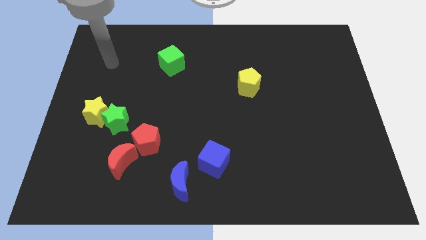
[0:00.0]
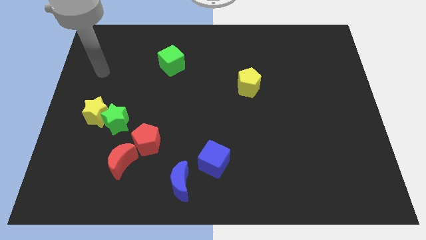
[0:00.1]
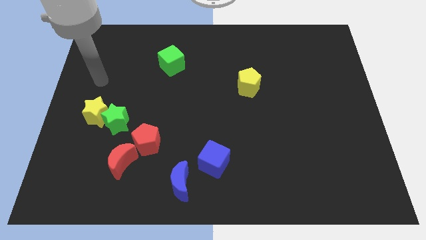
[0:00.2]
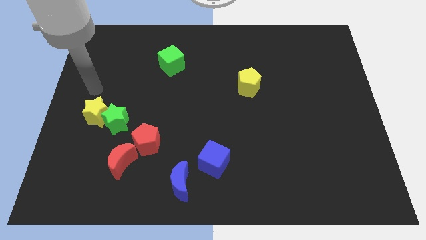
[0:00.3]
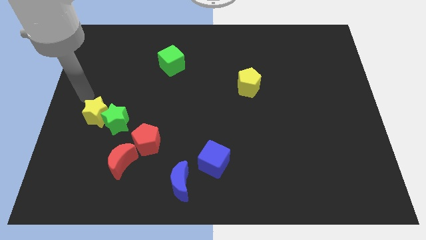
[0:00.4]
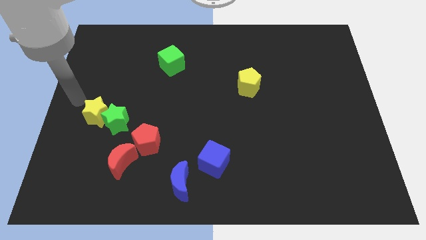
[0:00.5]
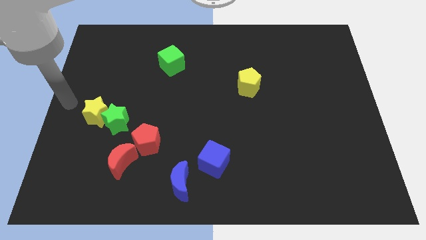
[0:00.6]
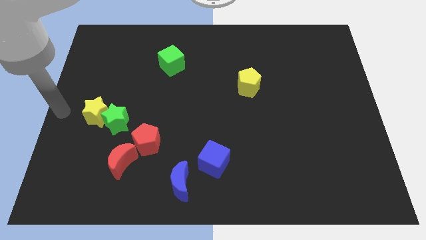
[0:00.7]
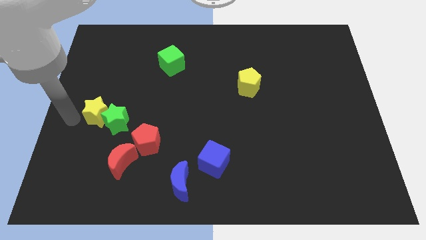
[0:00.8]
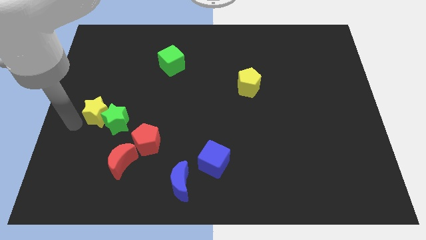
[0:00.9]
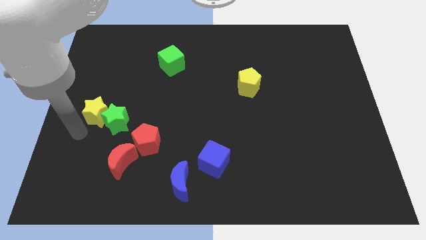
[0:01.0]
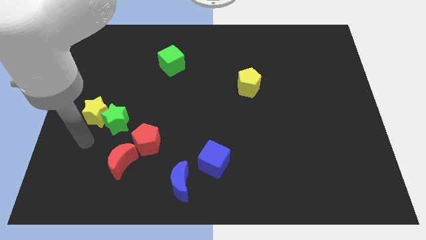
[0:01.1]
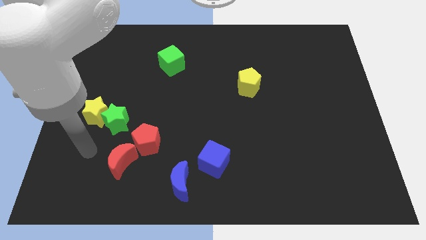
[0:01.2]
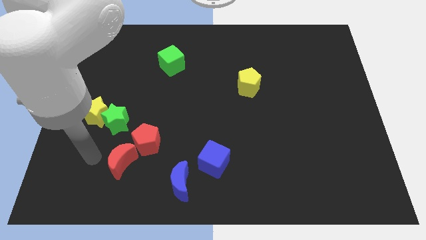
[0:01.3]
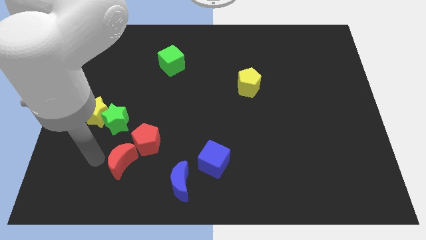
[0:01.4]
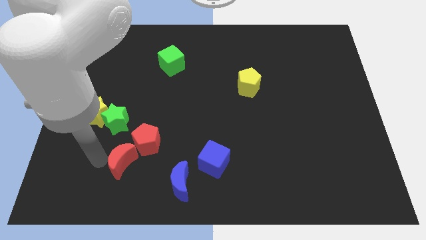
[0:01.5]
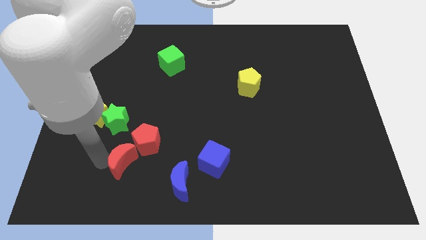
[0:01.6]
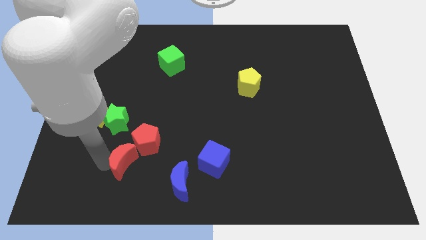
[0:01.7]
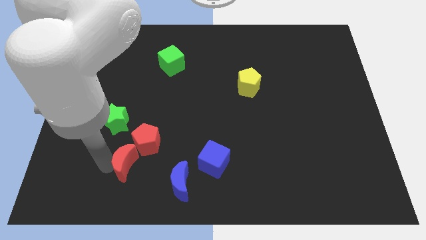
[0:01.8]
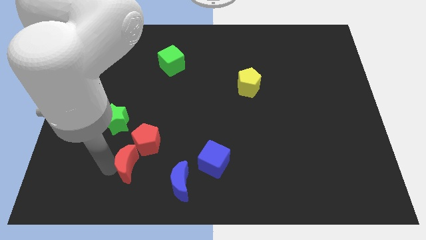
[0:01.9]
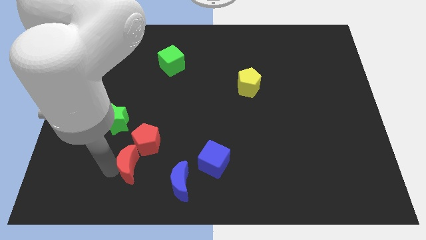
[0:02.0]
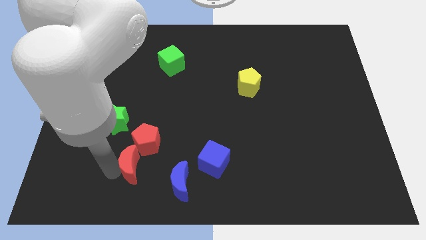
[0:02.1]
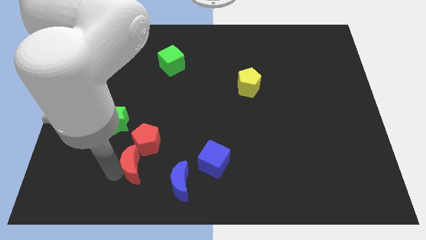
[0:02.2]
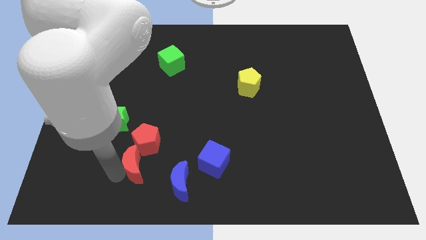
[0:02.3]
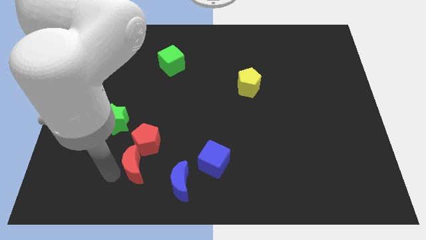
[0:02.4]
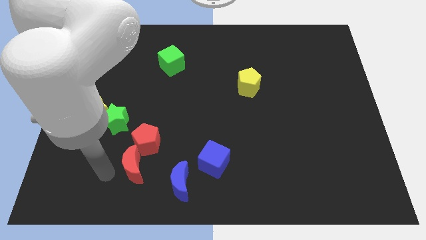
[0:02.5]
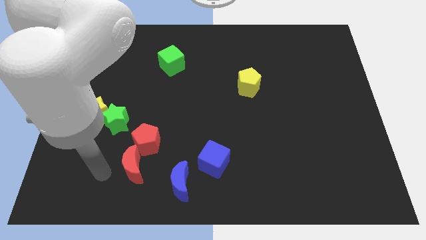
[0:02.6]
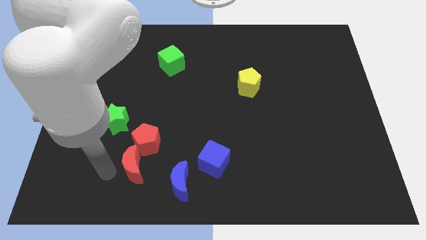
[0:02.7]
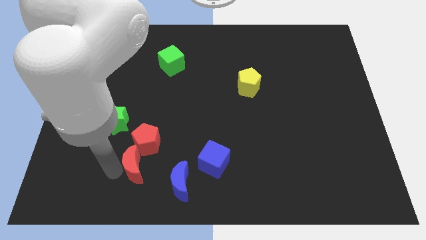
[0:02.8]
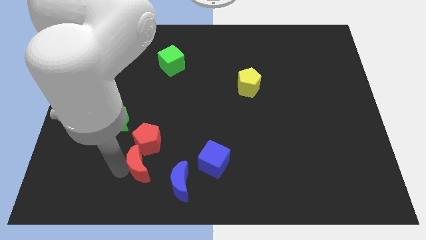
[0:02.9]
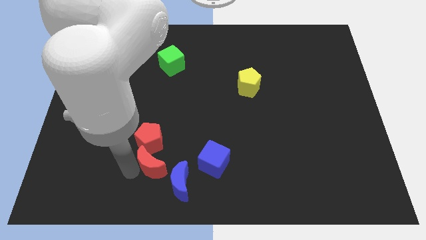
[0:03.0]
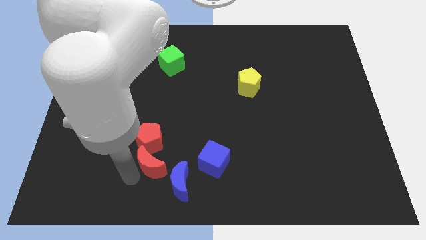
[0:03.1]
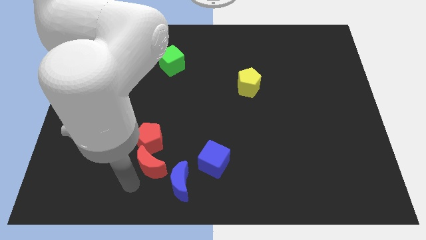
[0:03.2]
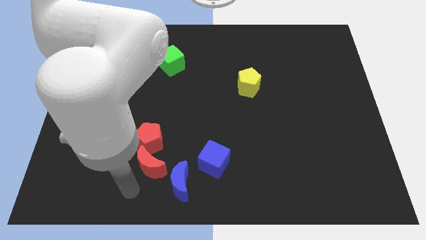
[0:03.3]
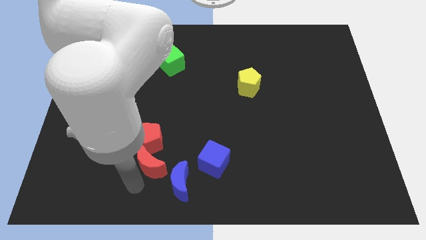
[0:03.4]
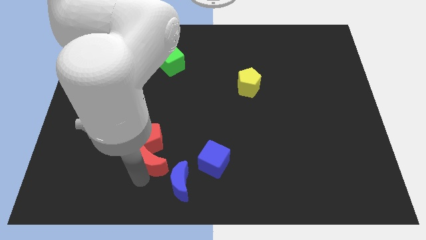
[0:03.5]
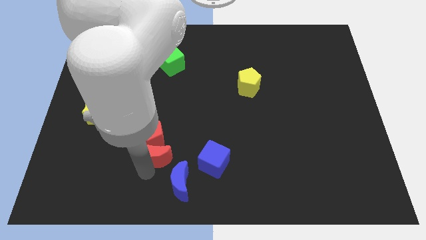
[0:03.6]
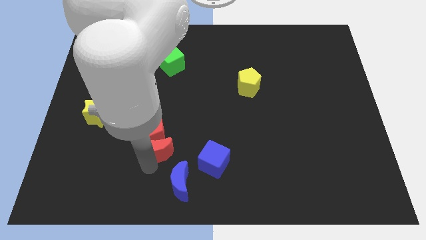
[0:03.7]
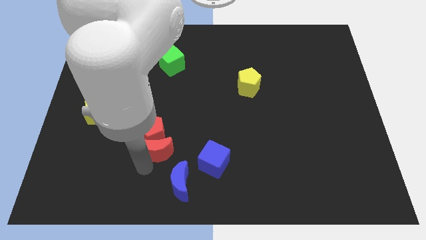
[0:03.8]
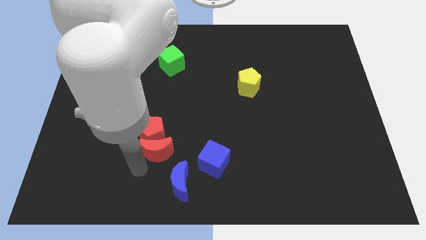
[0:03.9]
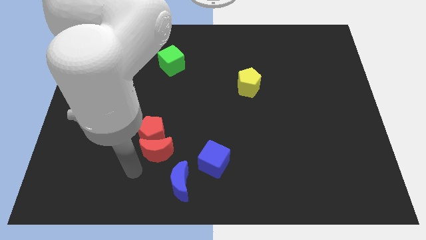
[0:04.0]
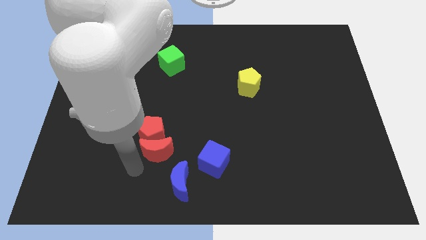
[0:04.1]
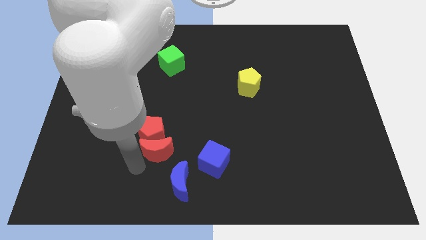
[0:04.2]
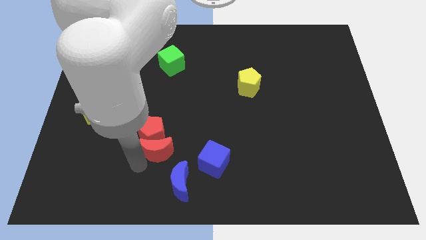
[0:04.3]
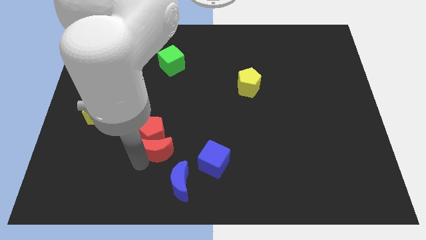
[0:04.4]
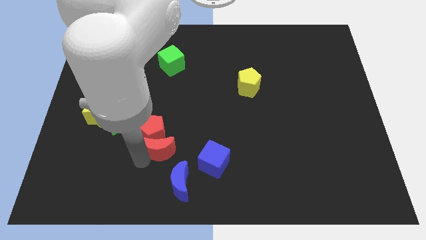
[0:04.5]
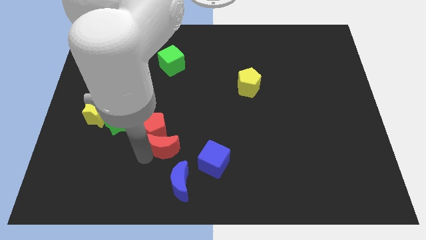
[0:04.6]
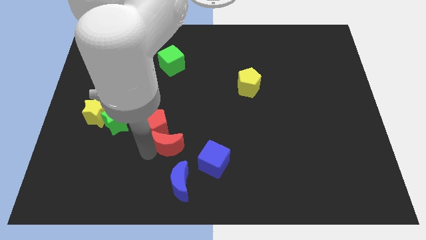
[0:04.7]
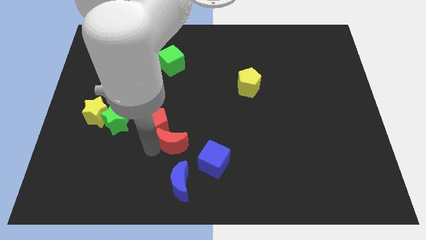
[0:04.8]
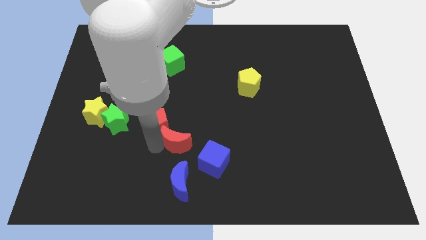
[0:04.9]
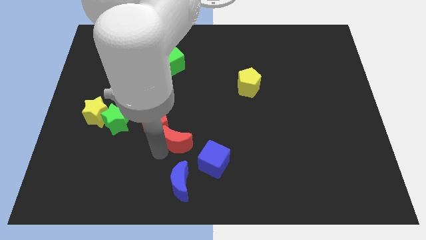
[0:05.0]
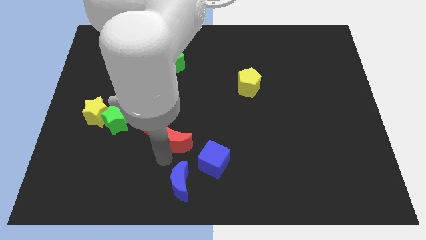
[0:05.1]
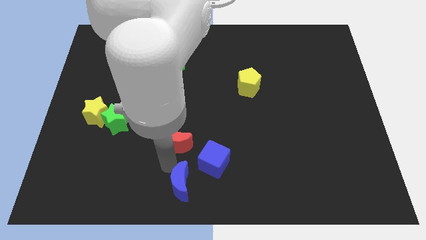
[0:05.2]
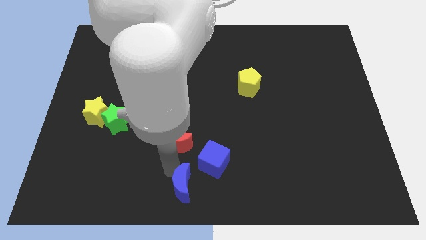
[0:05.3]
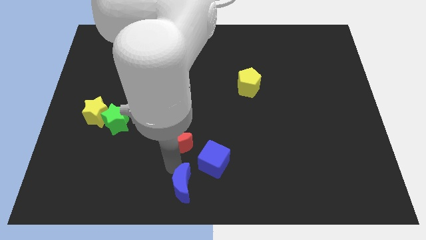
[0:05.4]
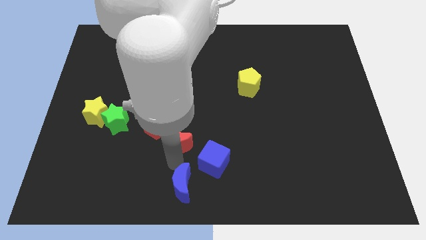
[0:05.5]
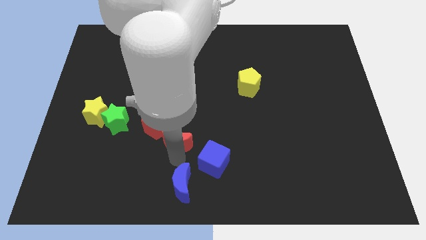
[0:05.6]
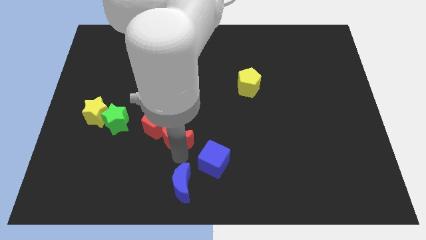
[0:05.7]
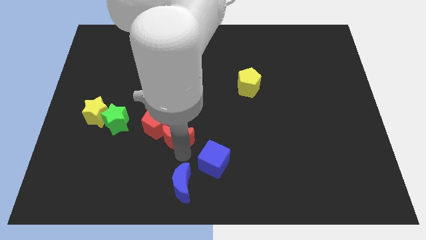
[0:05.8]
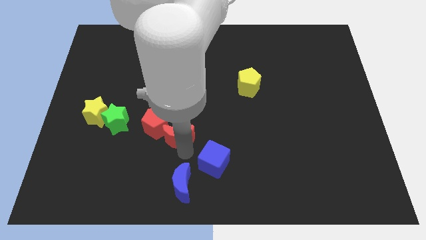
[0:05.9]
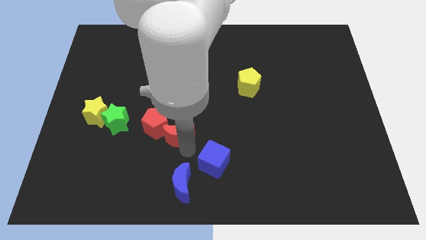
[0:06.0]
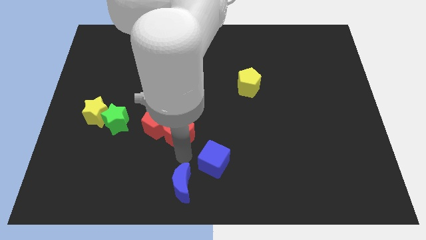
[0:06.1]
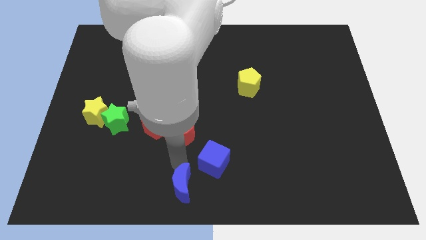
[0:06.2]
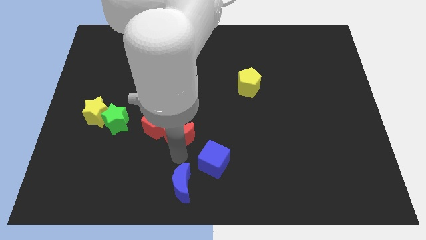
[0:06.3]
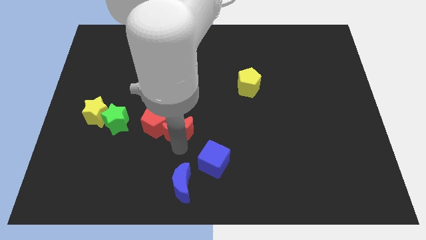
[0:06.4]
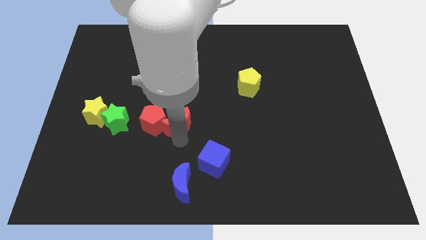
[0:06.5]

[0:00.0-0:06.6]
put the red moon diagonally up and to the right of the red pentagon

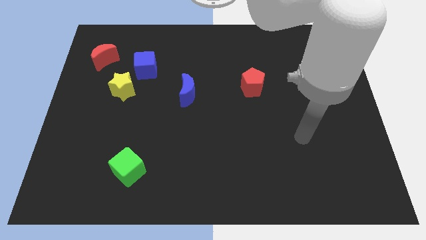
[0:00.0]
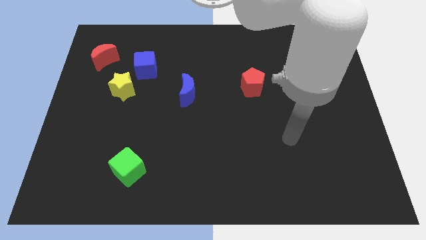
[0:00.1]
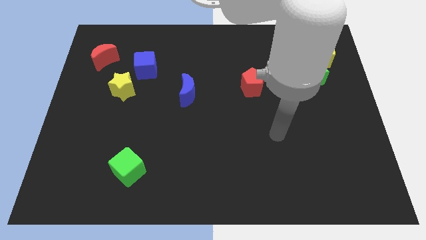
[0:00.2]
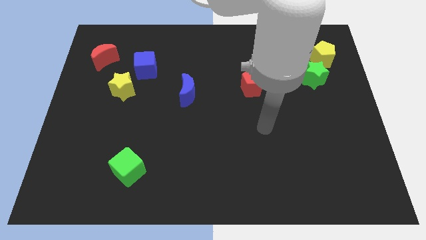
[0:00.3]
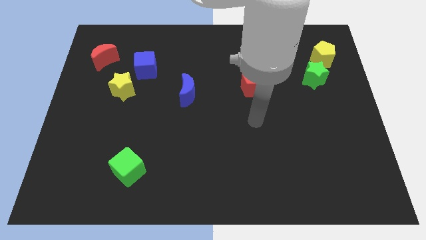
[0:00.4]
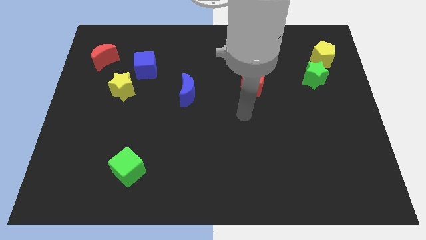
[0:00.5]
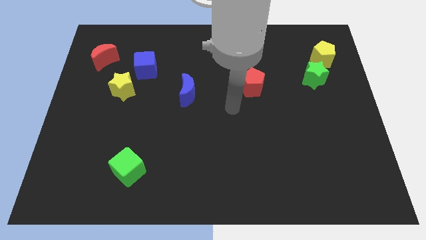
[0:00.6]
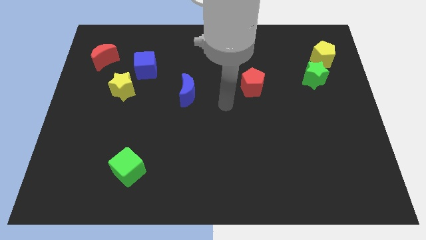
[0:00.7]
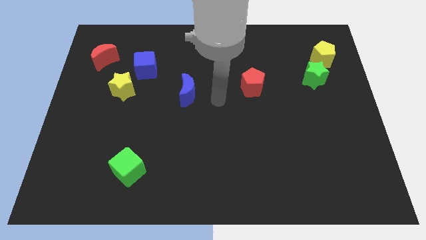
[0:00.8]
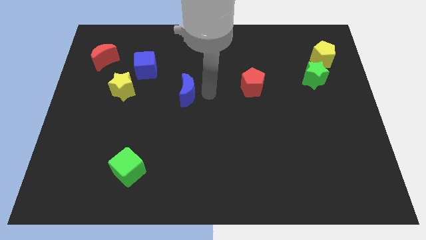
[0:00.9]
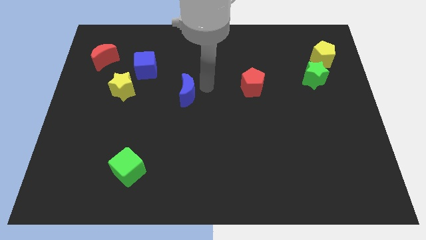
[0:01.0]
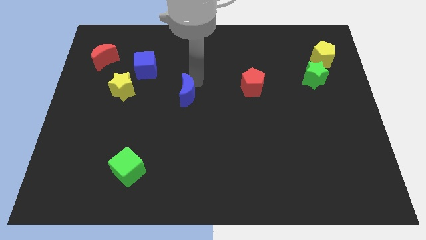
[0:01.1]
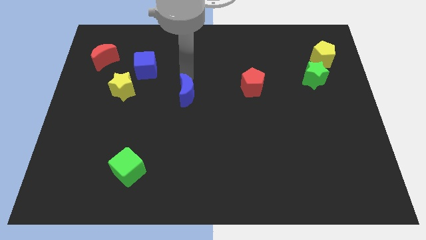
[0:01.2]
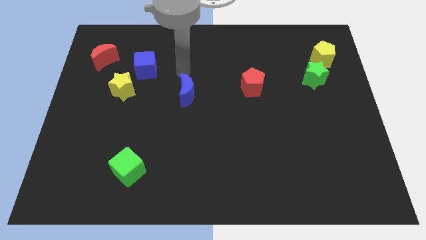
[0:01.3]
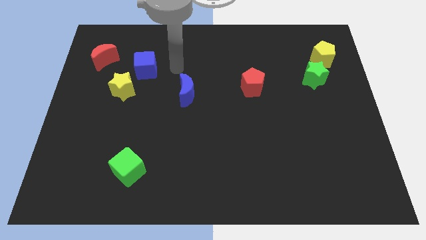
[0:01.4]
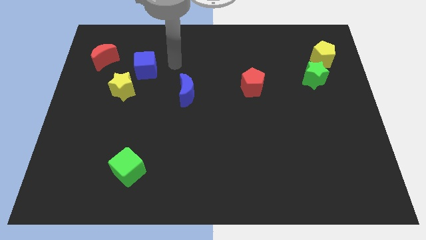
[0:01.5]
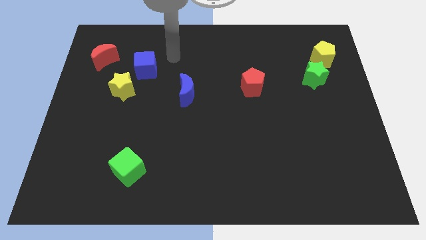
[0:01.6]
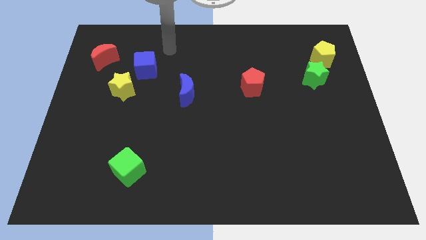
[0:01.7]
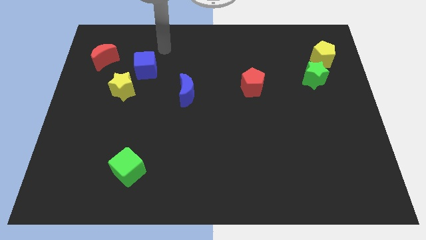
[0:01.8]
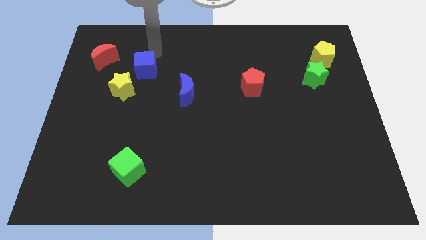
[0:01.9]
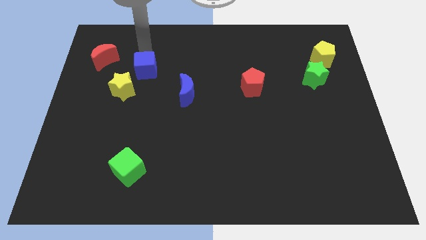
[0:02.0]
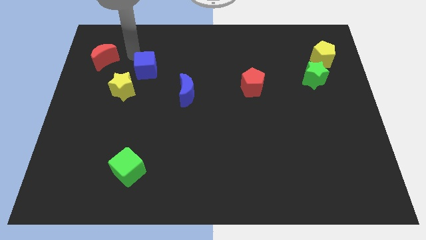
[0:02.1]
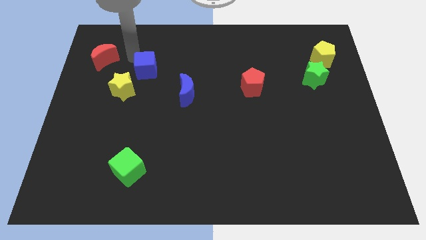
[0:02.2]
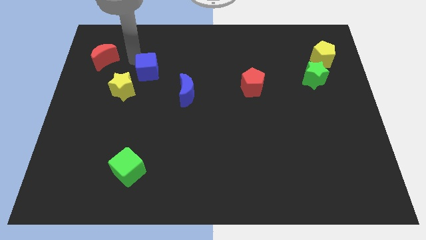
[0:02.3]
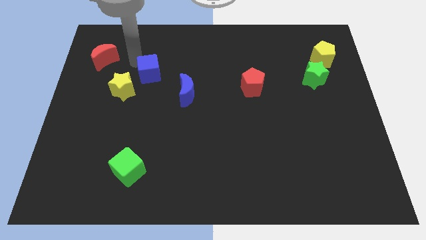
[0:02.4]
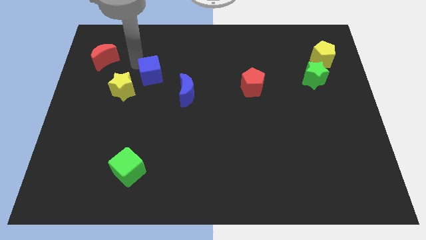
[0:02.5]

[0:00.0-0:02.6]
put the blue cube to the right side of the yellow star
